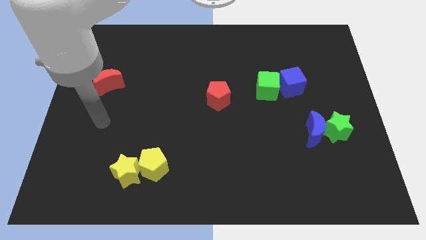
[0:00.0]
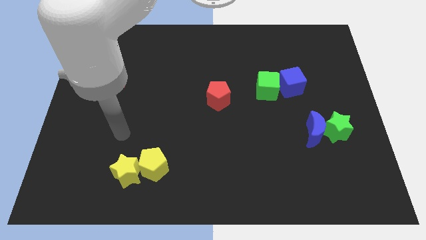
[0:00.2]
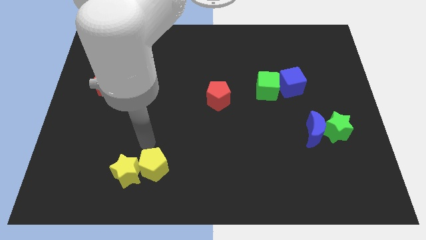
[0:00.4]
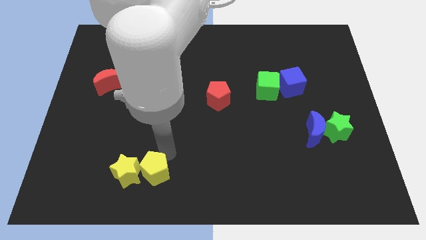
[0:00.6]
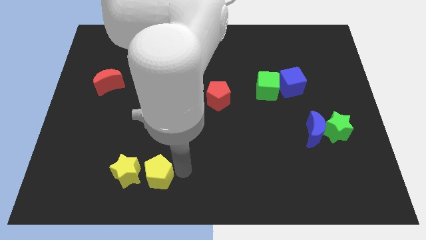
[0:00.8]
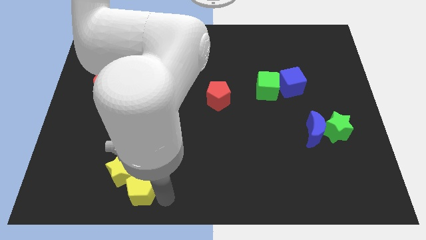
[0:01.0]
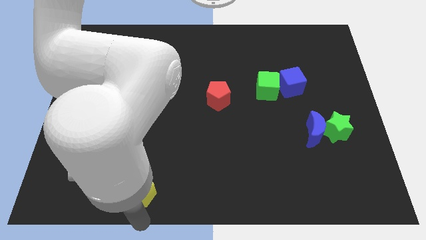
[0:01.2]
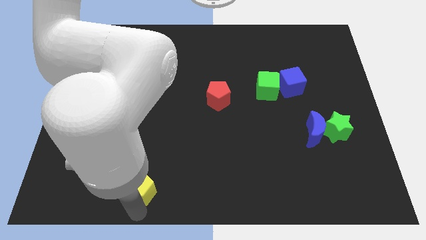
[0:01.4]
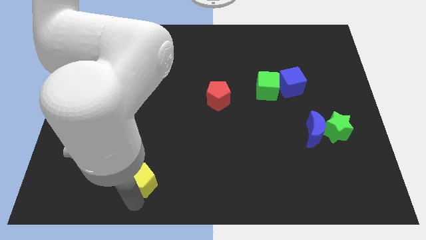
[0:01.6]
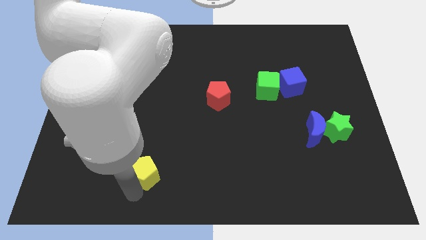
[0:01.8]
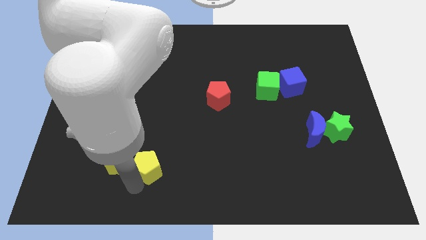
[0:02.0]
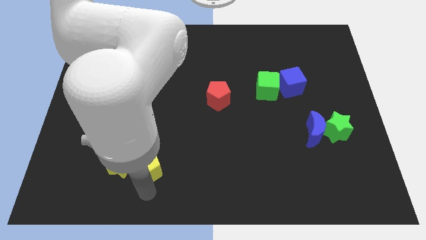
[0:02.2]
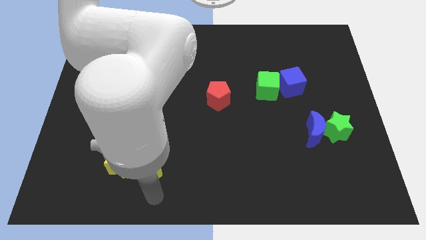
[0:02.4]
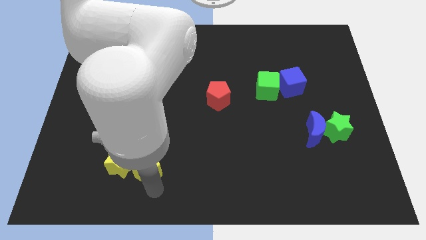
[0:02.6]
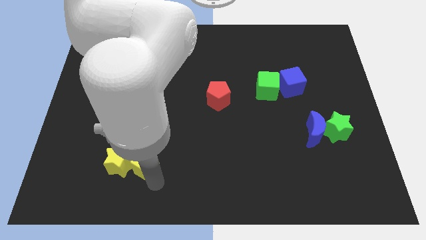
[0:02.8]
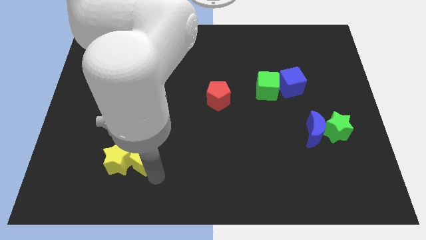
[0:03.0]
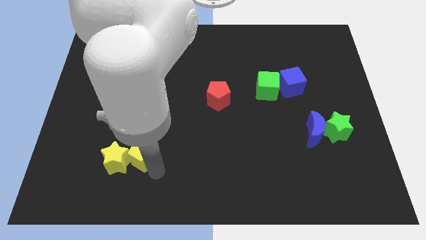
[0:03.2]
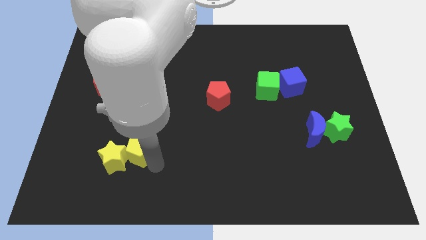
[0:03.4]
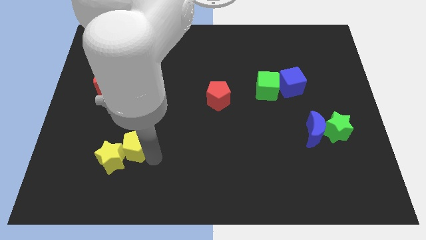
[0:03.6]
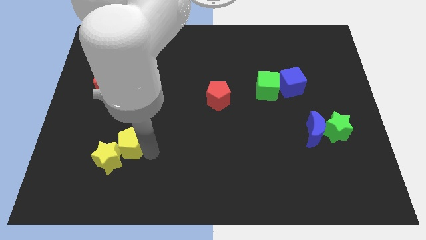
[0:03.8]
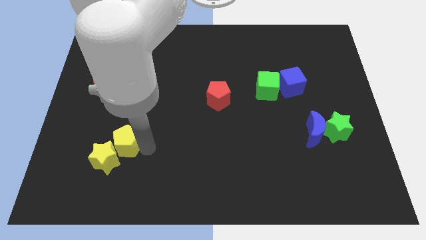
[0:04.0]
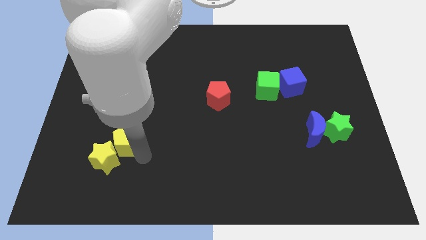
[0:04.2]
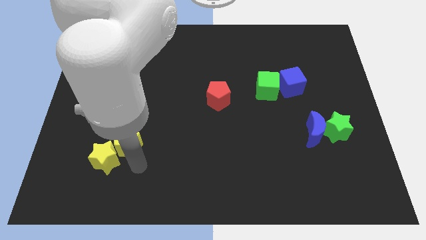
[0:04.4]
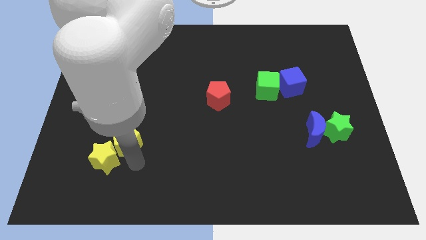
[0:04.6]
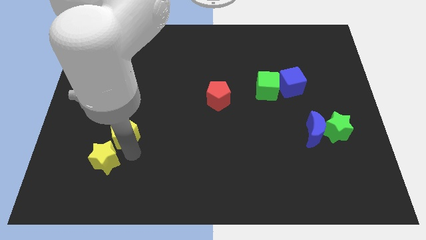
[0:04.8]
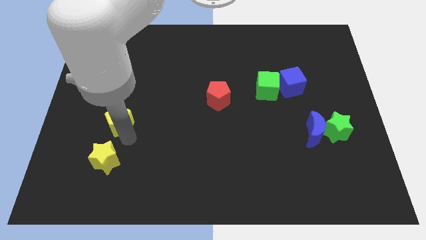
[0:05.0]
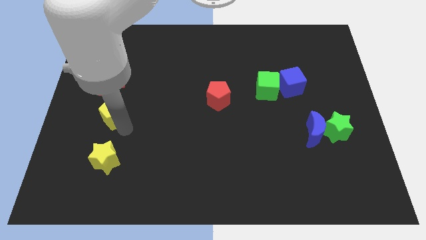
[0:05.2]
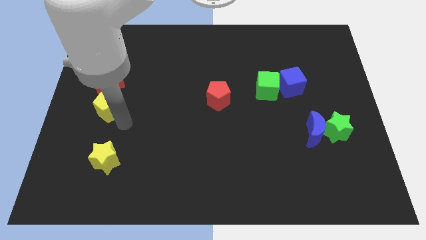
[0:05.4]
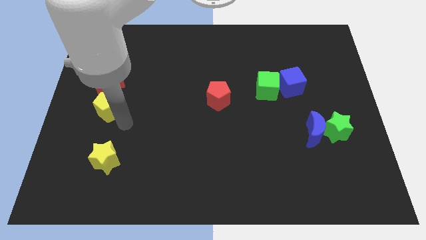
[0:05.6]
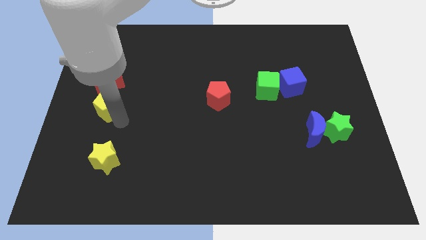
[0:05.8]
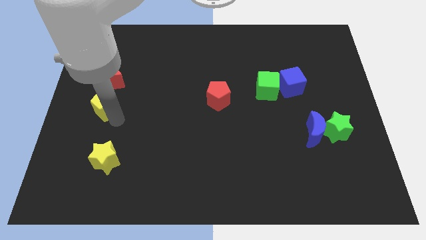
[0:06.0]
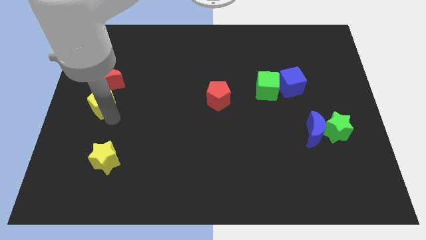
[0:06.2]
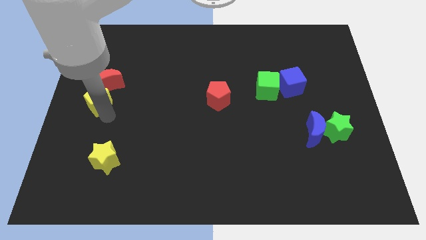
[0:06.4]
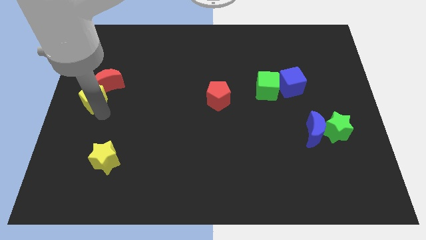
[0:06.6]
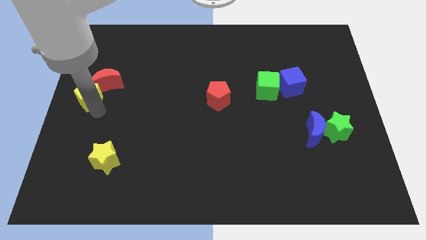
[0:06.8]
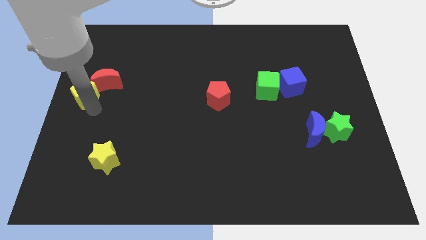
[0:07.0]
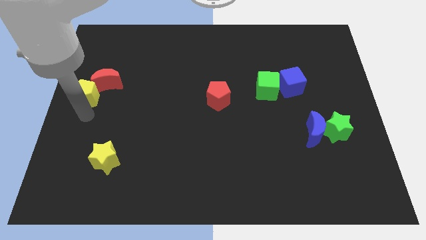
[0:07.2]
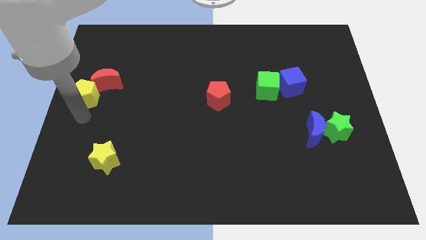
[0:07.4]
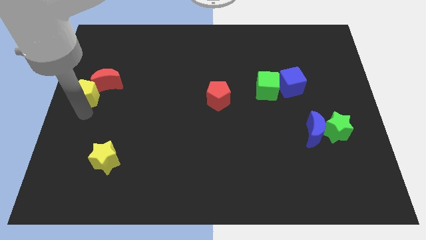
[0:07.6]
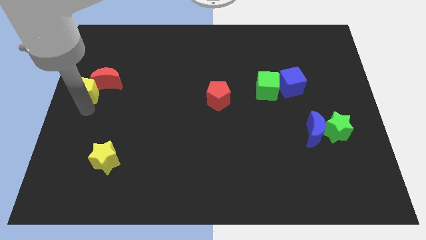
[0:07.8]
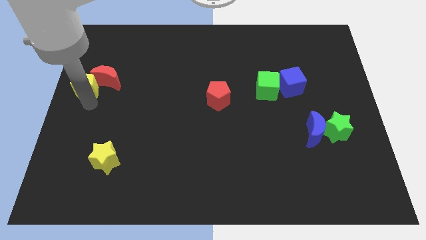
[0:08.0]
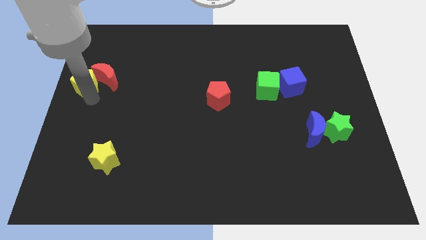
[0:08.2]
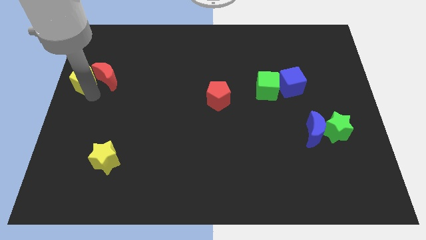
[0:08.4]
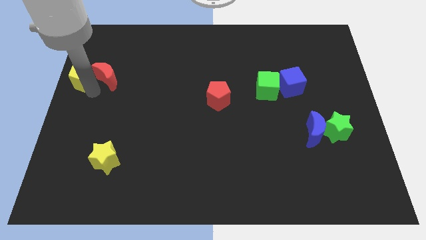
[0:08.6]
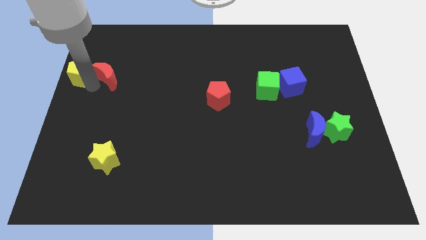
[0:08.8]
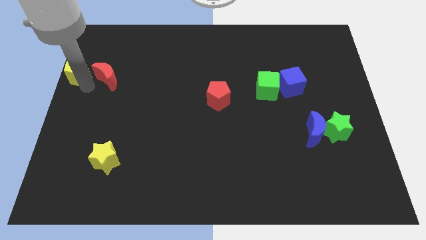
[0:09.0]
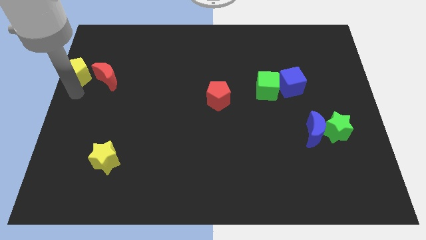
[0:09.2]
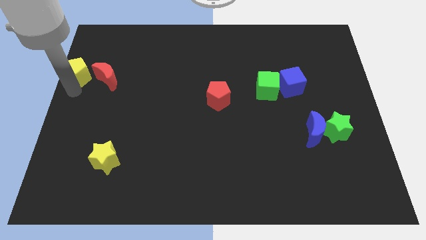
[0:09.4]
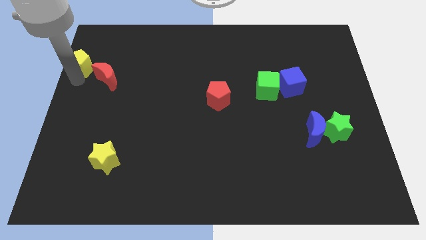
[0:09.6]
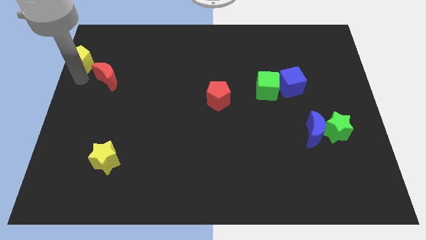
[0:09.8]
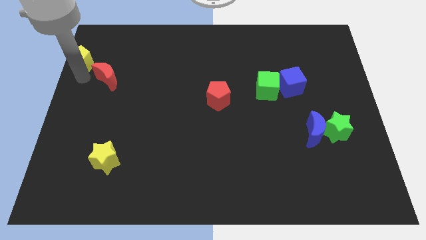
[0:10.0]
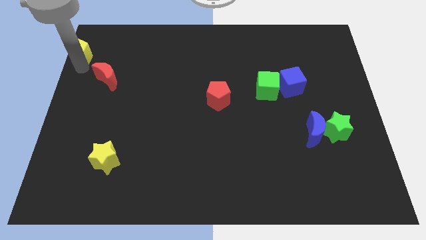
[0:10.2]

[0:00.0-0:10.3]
slide the yellow pentagon to the top left corner

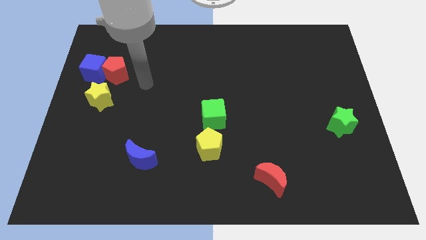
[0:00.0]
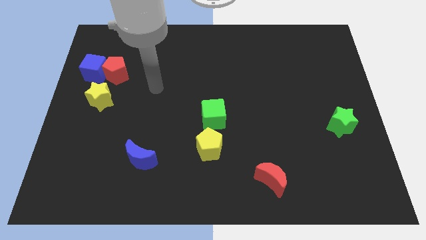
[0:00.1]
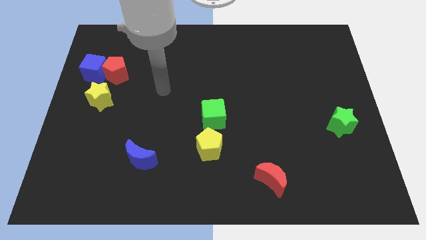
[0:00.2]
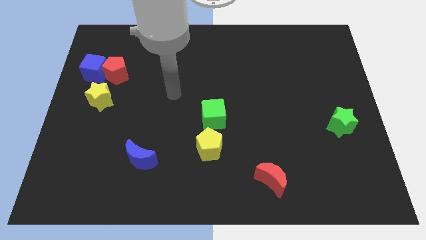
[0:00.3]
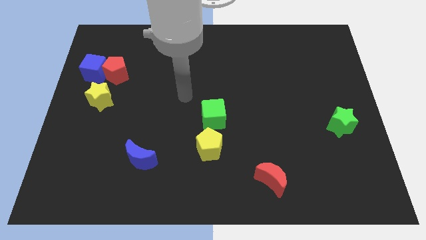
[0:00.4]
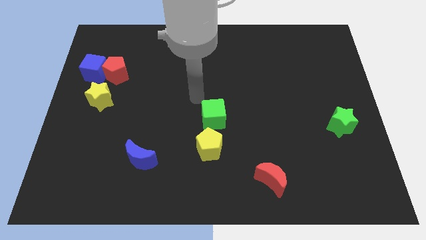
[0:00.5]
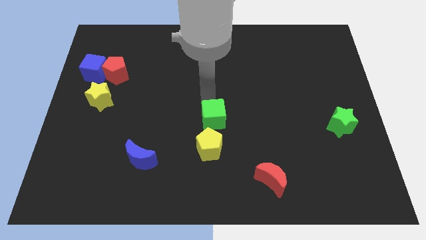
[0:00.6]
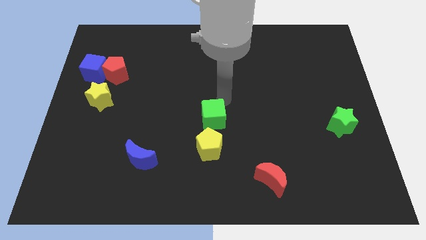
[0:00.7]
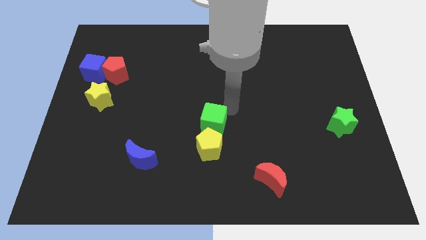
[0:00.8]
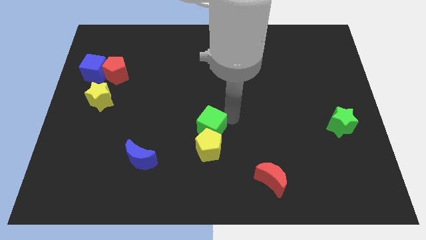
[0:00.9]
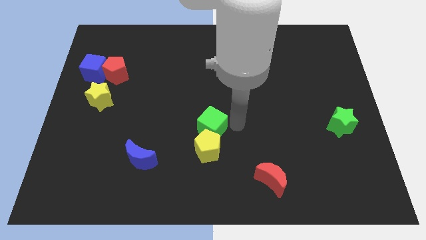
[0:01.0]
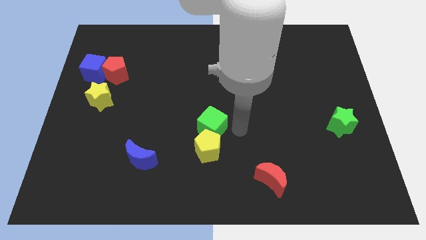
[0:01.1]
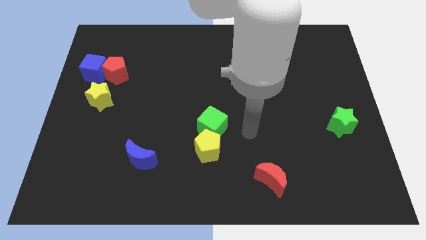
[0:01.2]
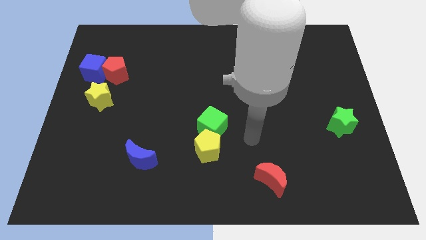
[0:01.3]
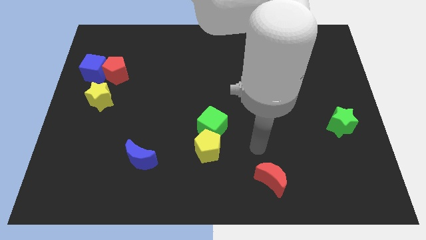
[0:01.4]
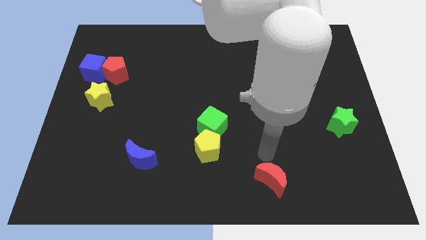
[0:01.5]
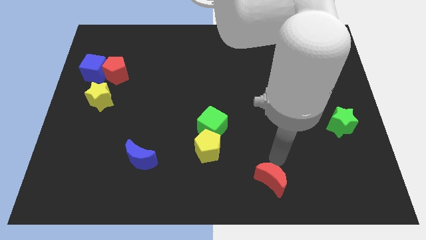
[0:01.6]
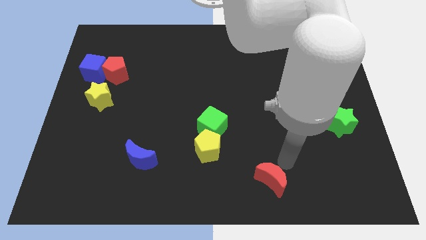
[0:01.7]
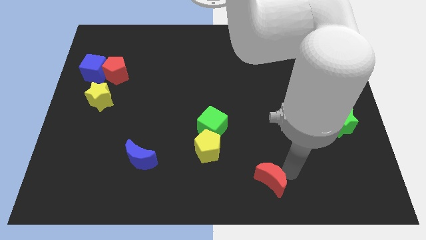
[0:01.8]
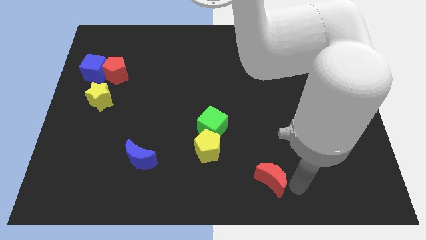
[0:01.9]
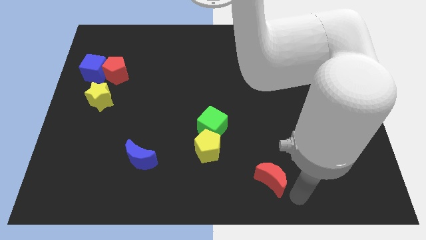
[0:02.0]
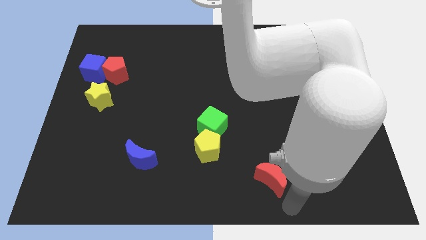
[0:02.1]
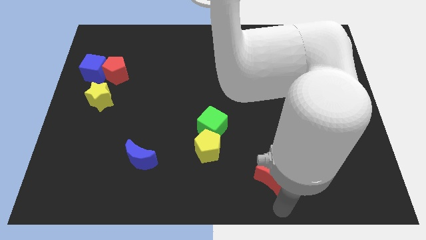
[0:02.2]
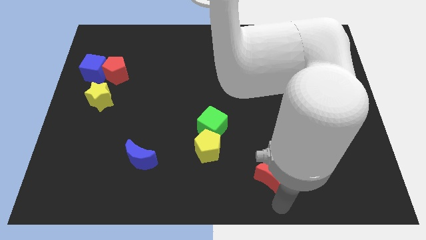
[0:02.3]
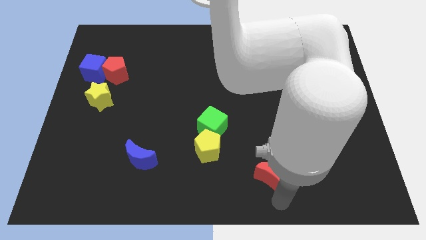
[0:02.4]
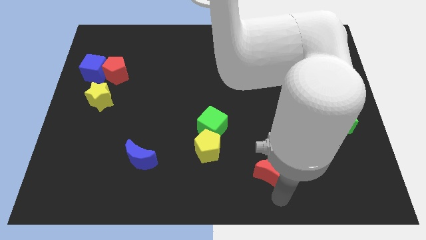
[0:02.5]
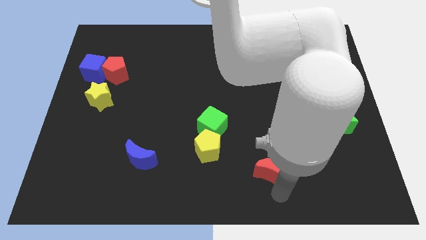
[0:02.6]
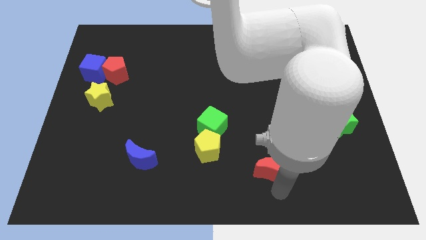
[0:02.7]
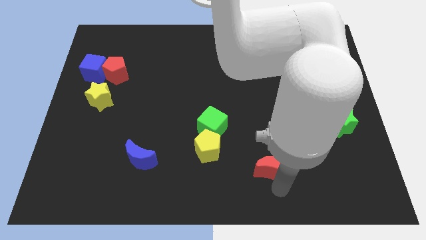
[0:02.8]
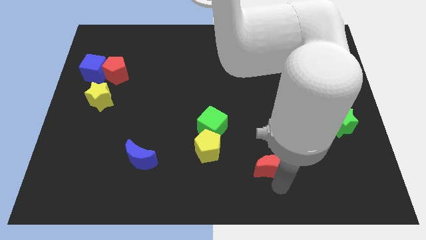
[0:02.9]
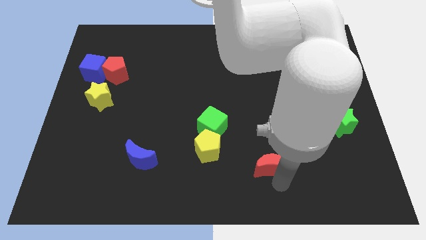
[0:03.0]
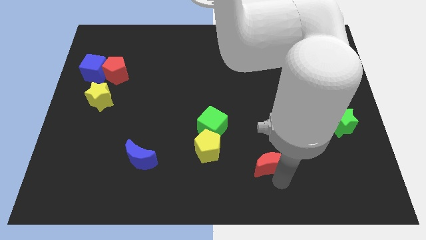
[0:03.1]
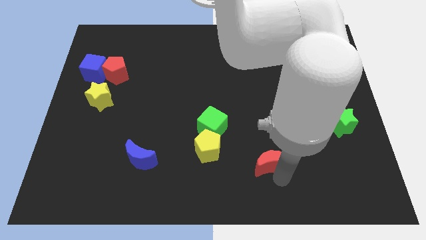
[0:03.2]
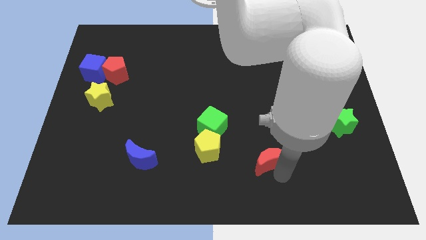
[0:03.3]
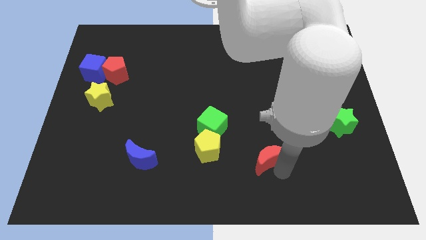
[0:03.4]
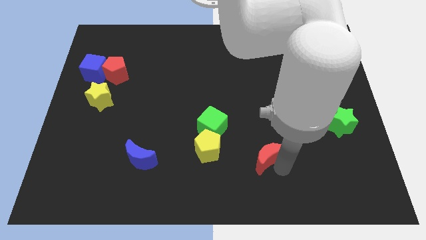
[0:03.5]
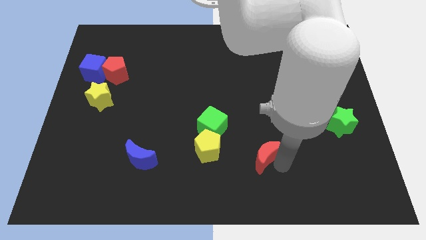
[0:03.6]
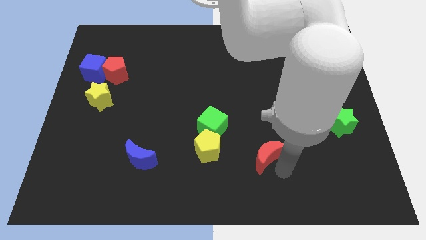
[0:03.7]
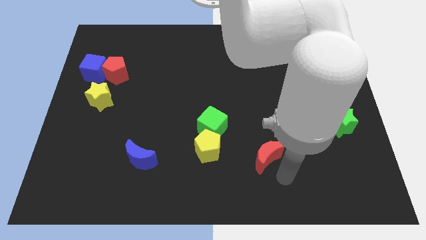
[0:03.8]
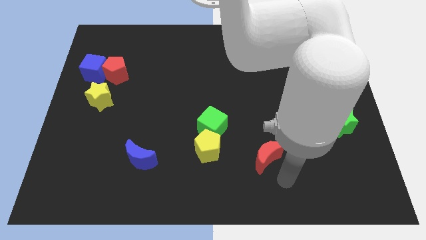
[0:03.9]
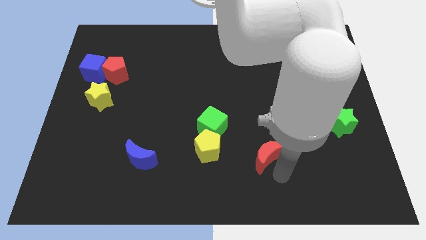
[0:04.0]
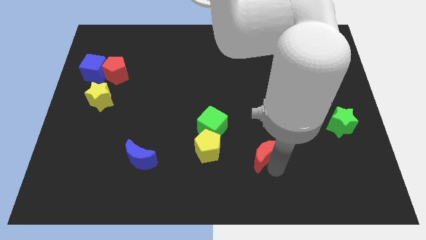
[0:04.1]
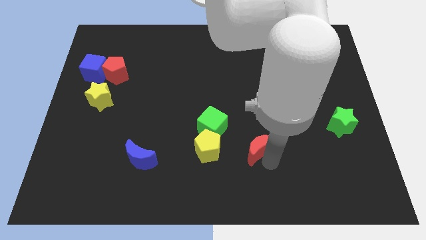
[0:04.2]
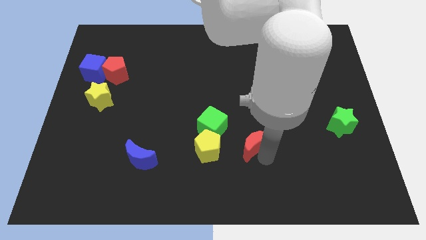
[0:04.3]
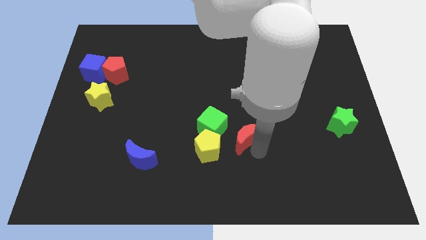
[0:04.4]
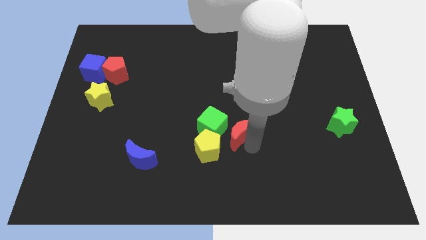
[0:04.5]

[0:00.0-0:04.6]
move the red moon to the middle of the board
